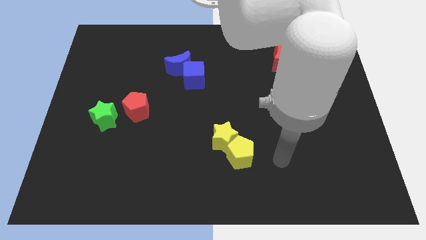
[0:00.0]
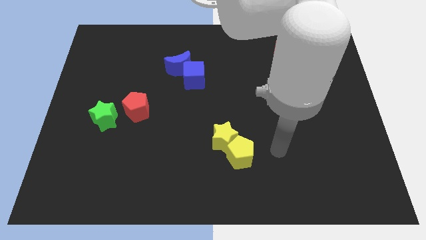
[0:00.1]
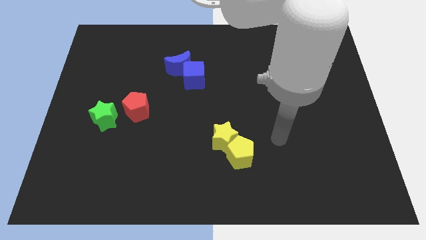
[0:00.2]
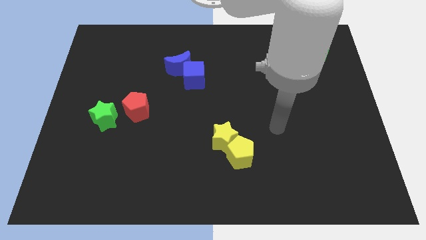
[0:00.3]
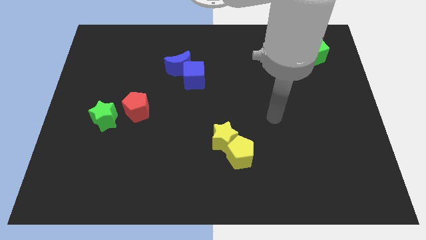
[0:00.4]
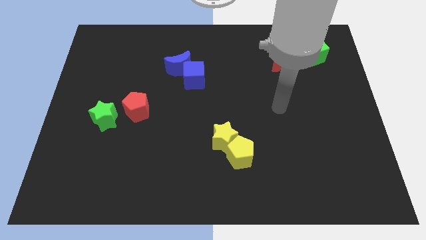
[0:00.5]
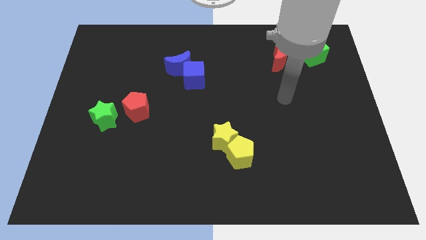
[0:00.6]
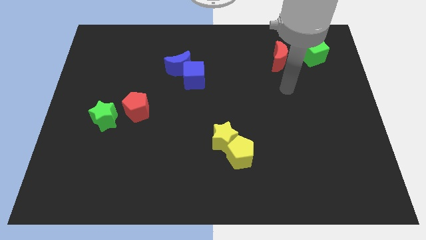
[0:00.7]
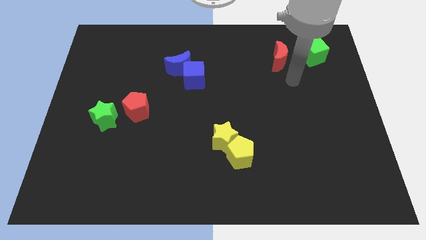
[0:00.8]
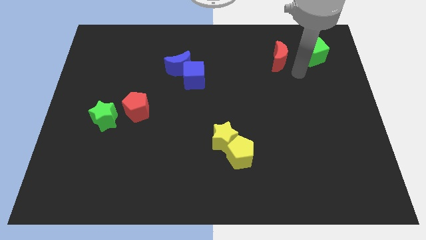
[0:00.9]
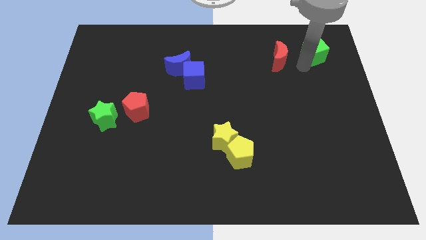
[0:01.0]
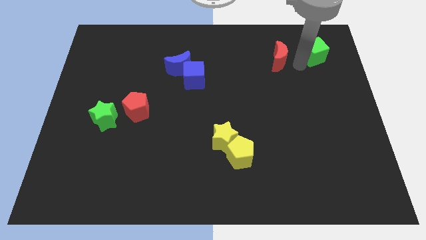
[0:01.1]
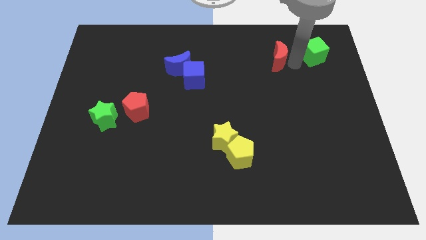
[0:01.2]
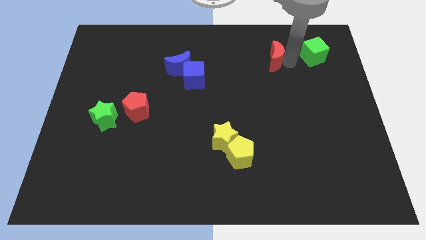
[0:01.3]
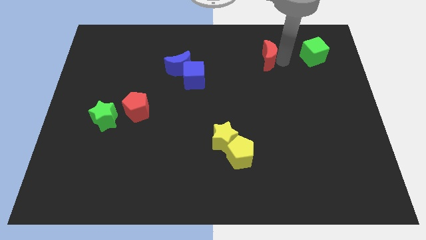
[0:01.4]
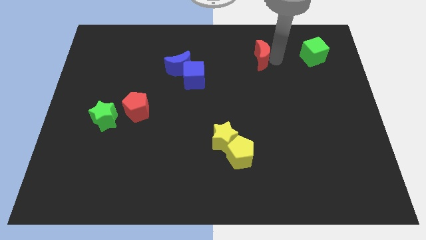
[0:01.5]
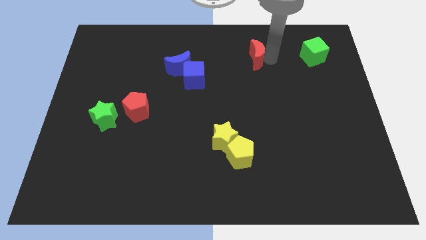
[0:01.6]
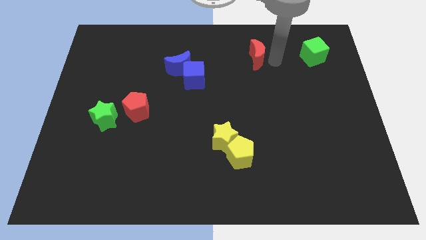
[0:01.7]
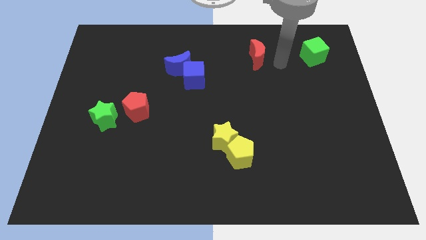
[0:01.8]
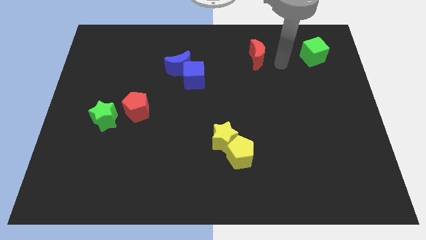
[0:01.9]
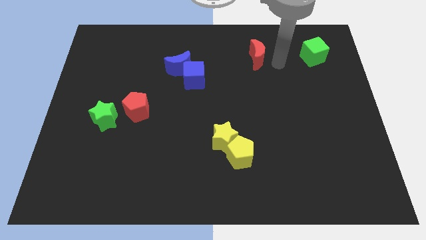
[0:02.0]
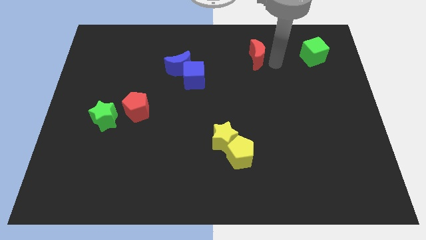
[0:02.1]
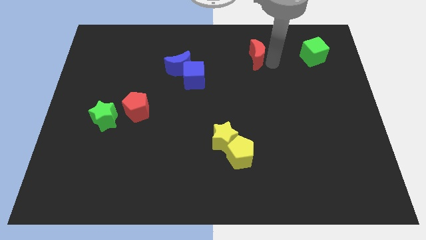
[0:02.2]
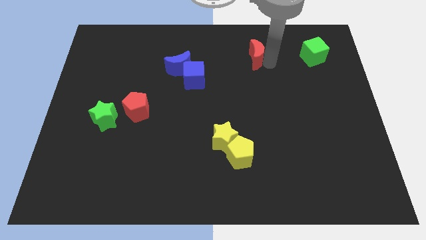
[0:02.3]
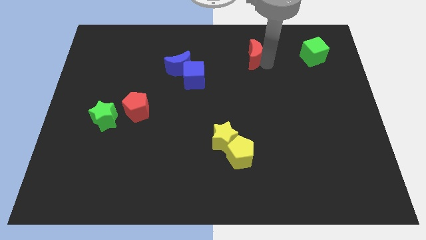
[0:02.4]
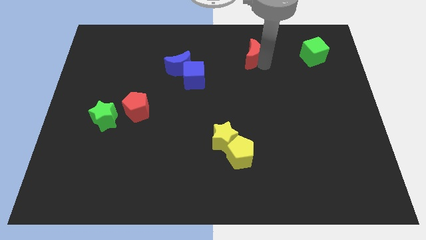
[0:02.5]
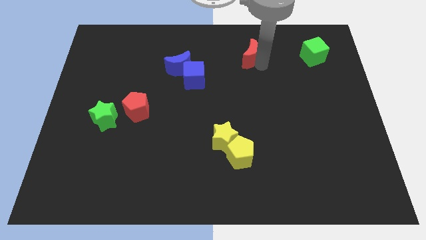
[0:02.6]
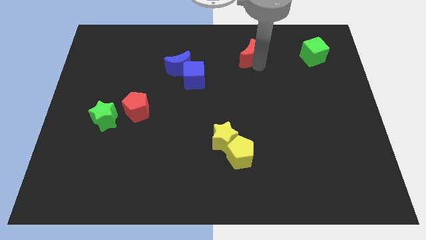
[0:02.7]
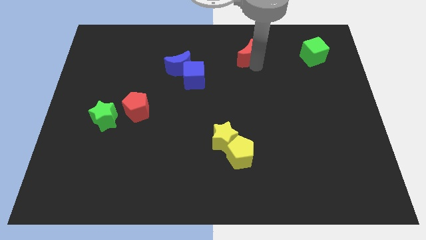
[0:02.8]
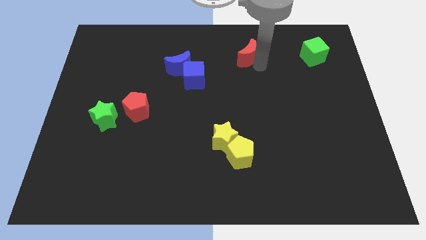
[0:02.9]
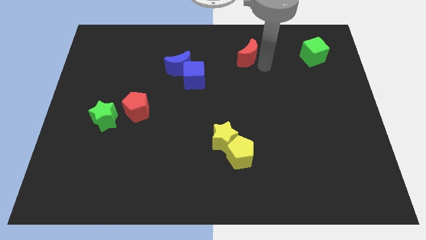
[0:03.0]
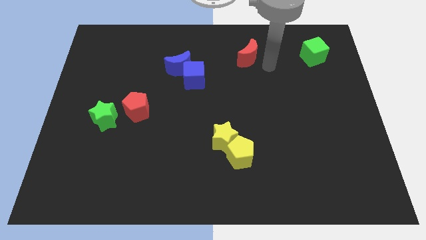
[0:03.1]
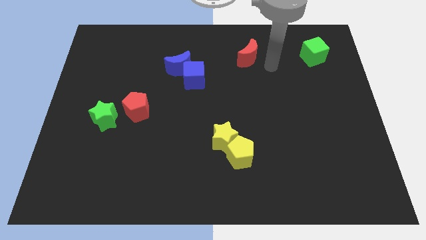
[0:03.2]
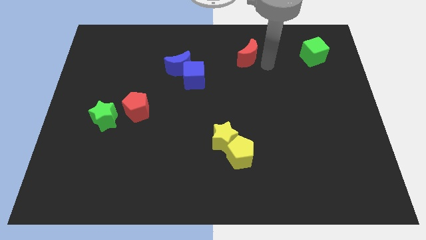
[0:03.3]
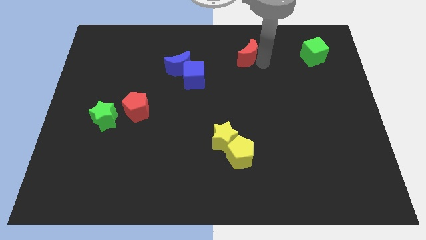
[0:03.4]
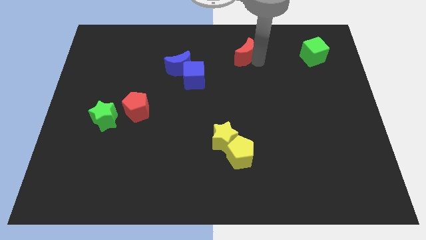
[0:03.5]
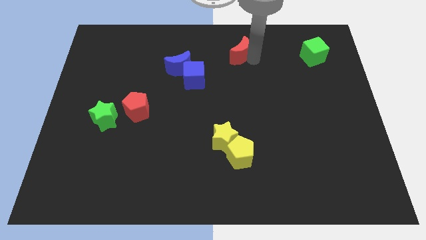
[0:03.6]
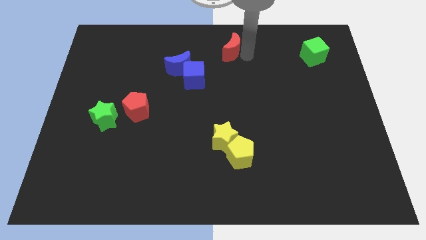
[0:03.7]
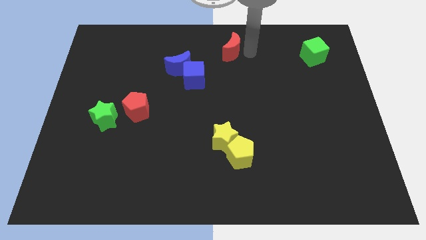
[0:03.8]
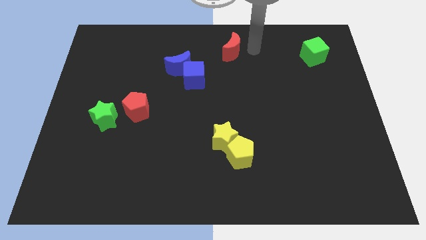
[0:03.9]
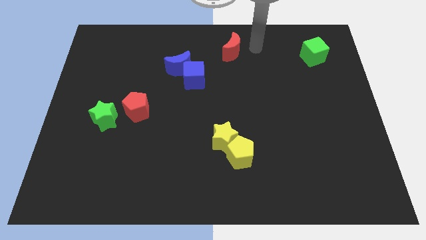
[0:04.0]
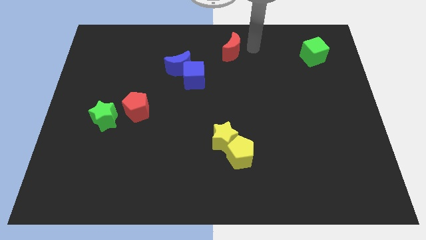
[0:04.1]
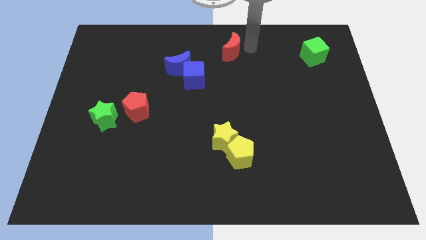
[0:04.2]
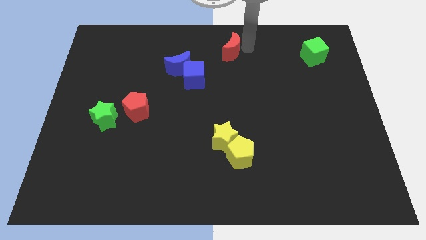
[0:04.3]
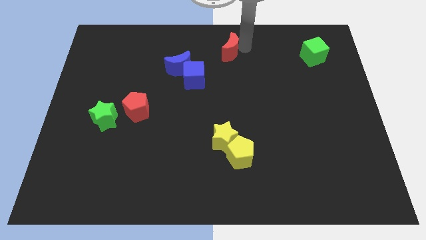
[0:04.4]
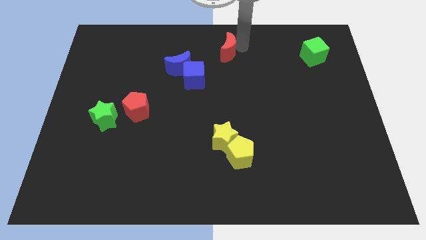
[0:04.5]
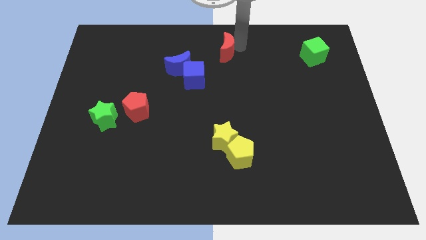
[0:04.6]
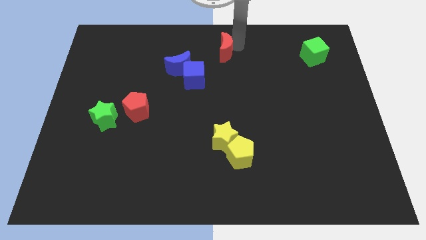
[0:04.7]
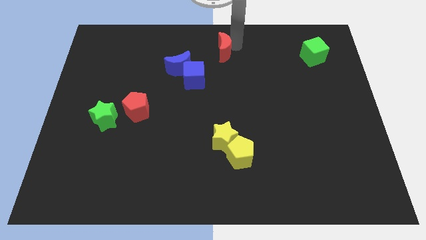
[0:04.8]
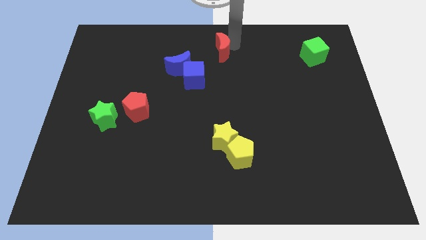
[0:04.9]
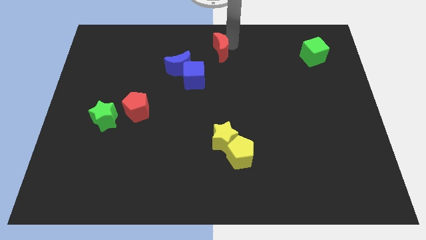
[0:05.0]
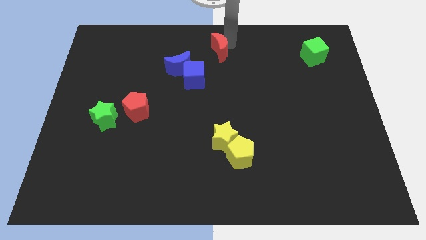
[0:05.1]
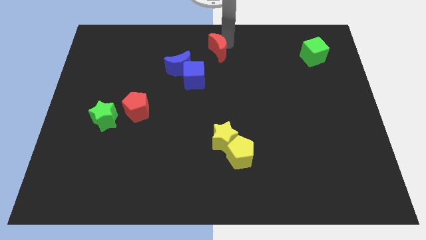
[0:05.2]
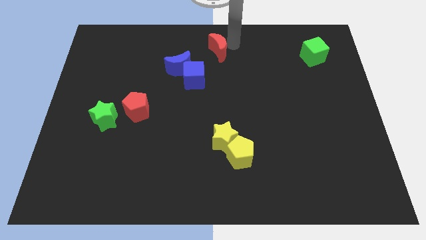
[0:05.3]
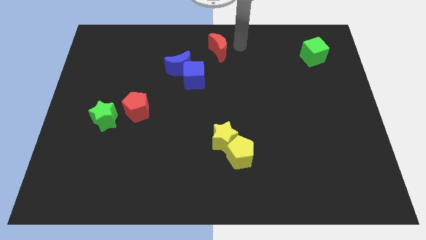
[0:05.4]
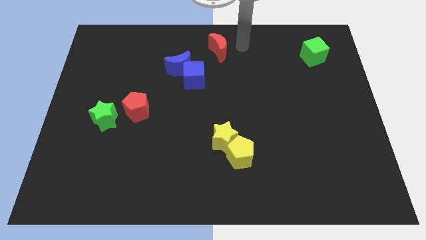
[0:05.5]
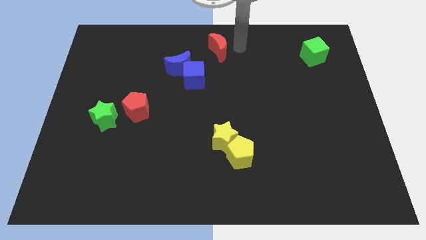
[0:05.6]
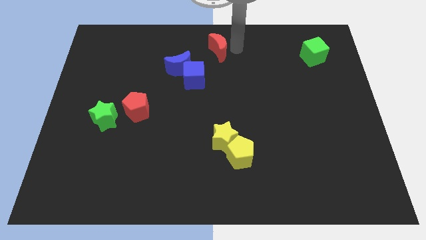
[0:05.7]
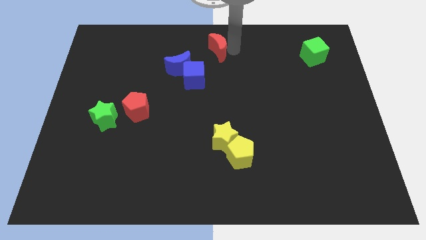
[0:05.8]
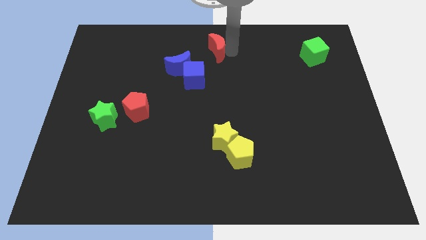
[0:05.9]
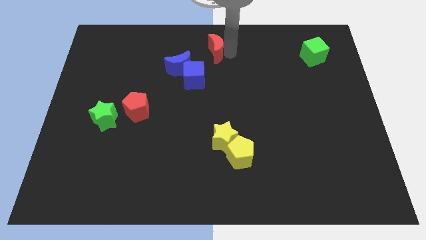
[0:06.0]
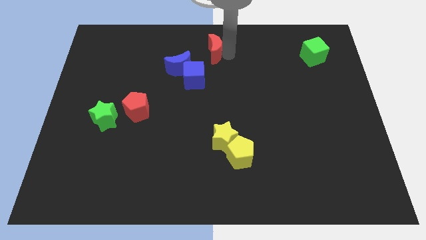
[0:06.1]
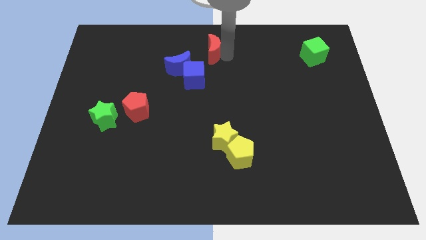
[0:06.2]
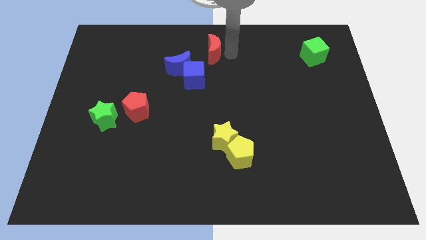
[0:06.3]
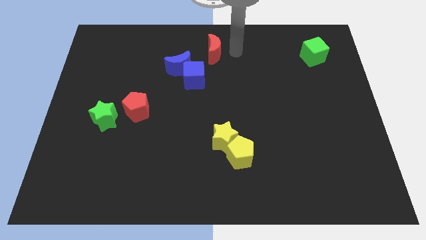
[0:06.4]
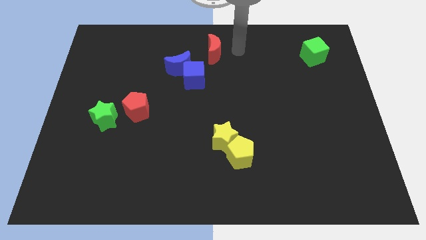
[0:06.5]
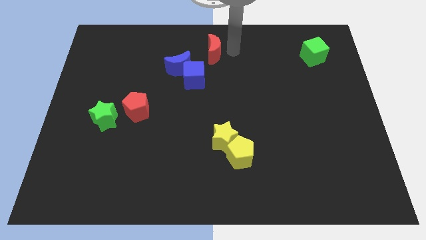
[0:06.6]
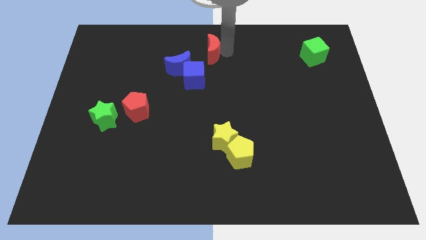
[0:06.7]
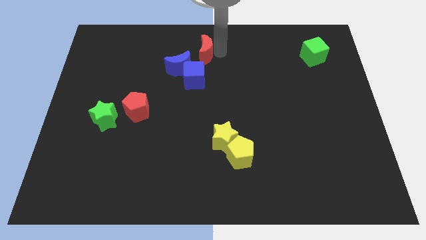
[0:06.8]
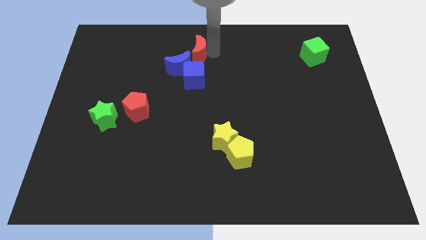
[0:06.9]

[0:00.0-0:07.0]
move the red moon to the left

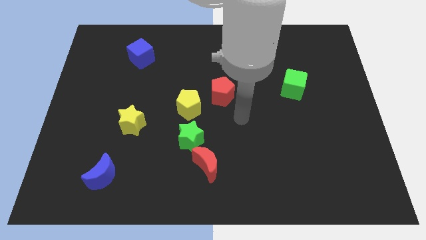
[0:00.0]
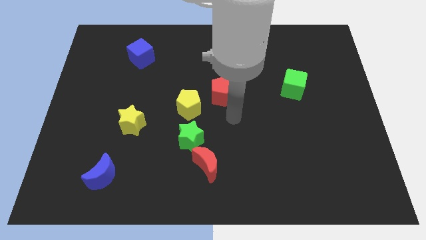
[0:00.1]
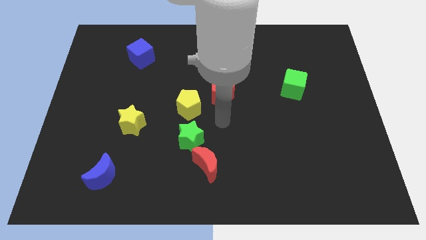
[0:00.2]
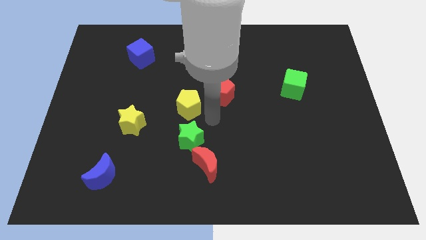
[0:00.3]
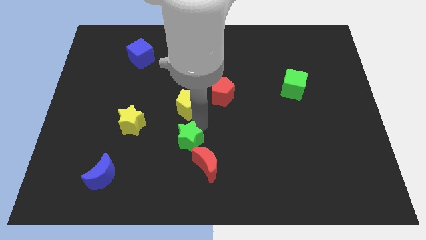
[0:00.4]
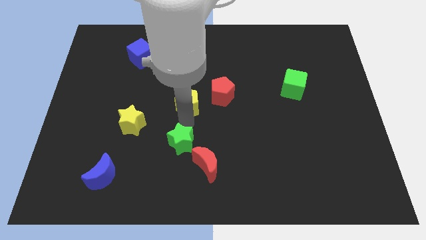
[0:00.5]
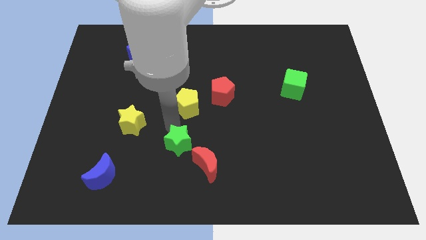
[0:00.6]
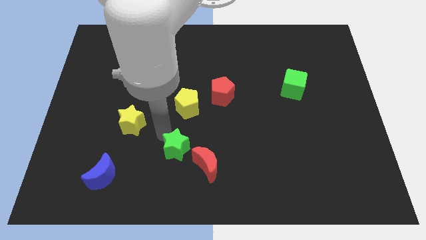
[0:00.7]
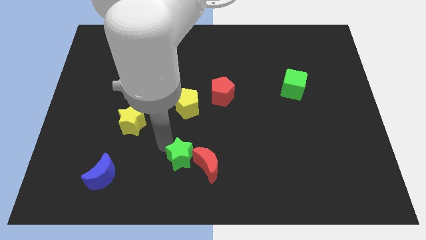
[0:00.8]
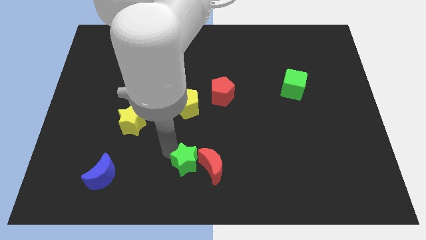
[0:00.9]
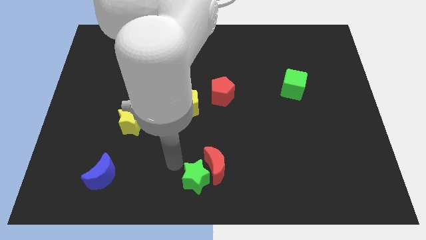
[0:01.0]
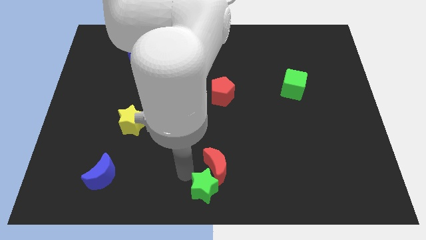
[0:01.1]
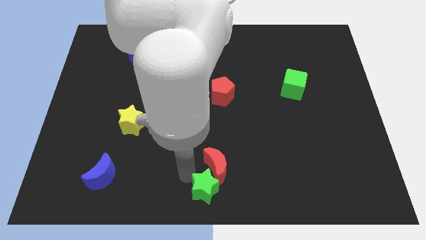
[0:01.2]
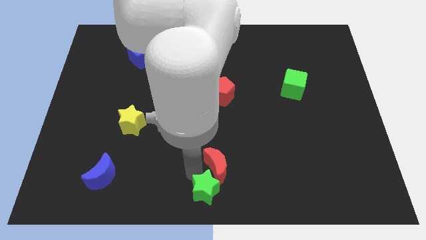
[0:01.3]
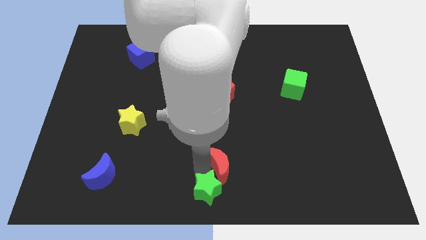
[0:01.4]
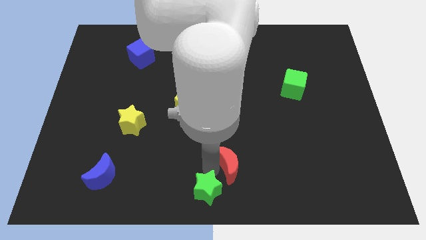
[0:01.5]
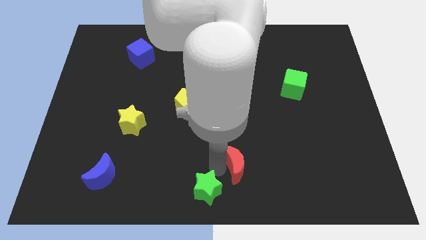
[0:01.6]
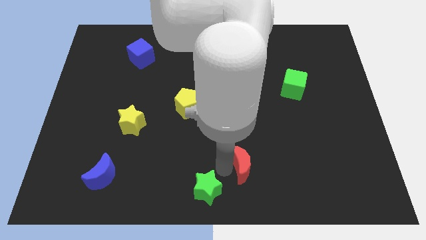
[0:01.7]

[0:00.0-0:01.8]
slightly push the red moon right
